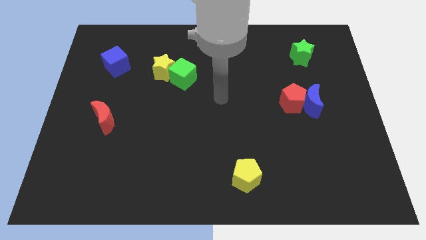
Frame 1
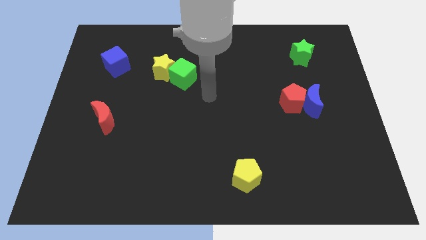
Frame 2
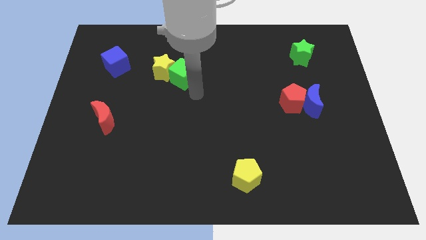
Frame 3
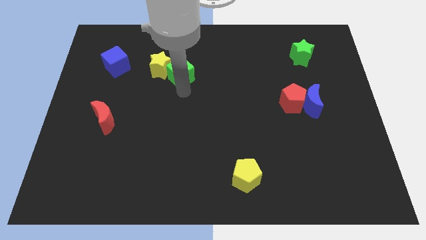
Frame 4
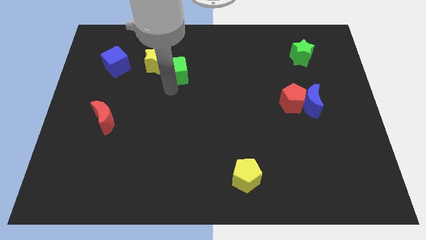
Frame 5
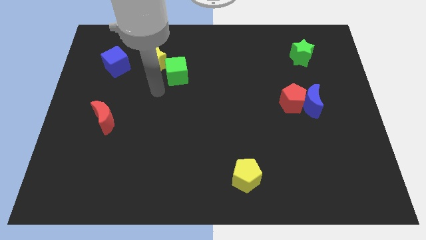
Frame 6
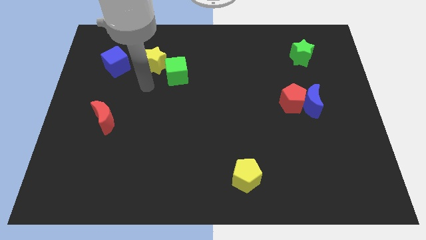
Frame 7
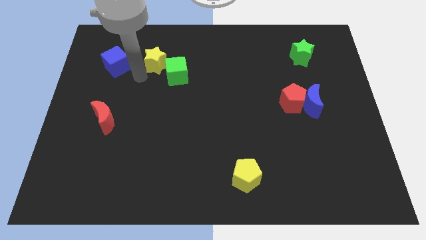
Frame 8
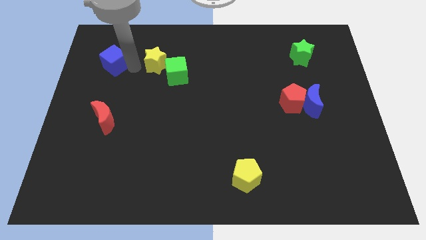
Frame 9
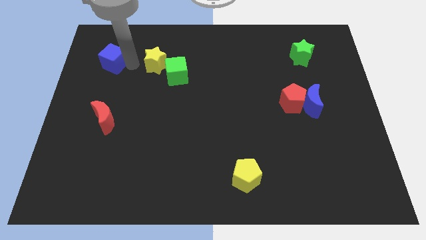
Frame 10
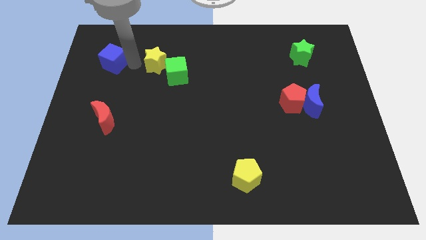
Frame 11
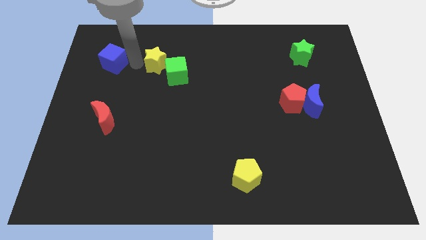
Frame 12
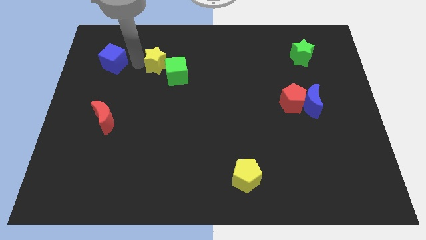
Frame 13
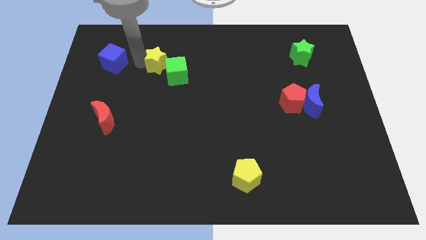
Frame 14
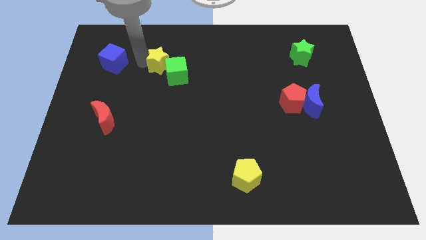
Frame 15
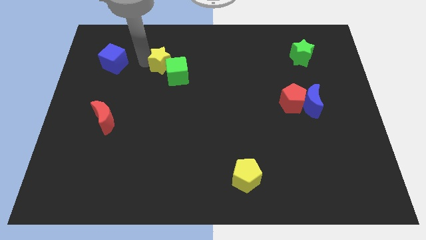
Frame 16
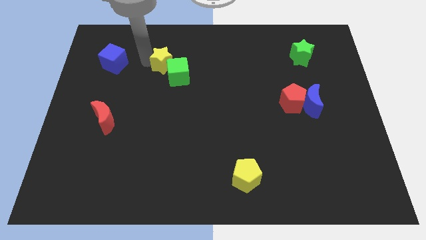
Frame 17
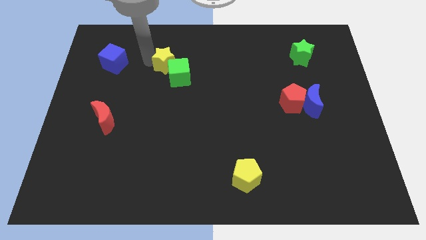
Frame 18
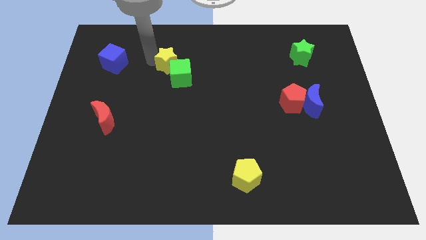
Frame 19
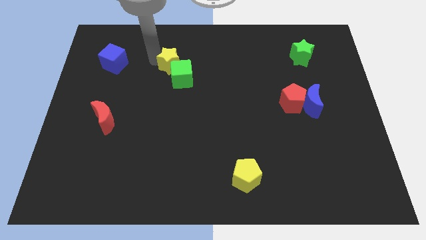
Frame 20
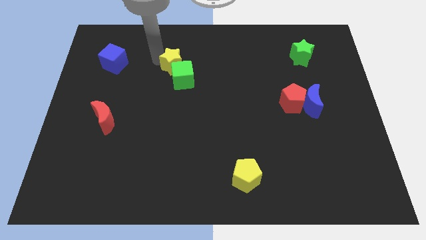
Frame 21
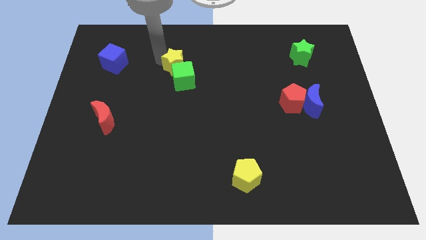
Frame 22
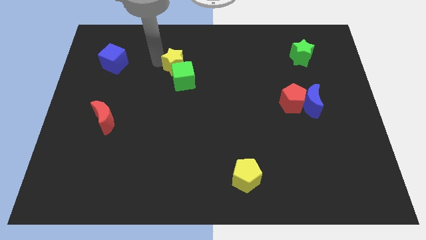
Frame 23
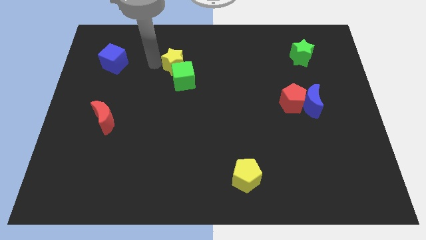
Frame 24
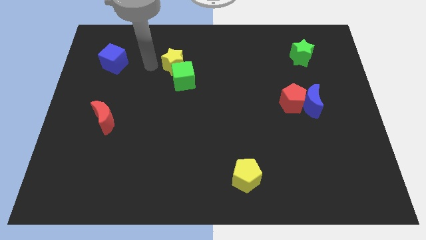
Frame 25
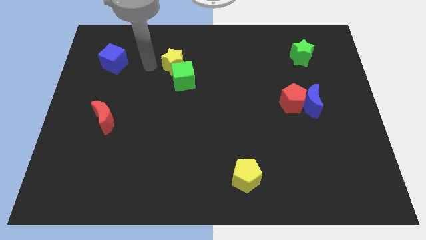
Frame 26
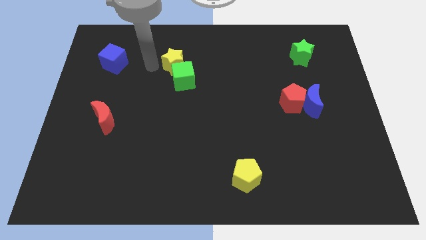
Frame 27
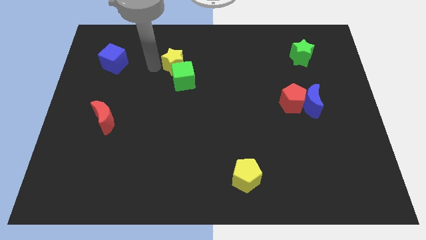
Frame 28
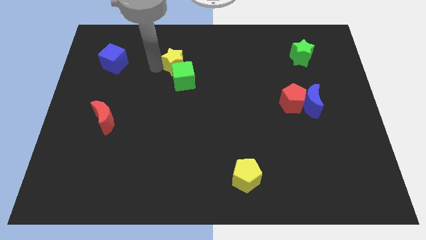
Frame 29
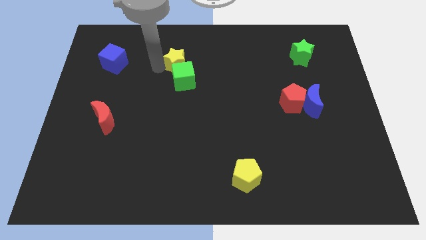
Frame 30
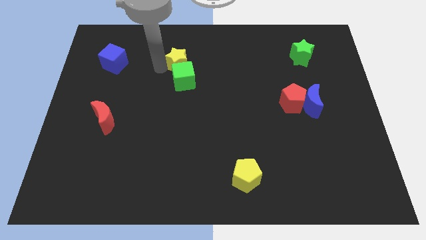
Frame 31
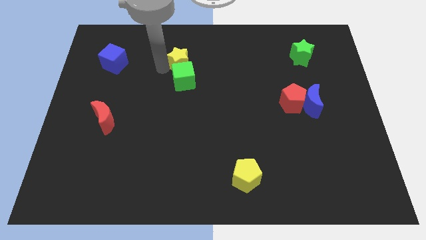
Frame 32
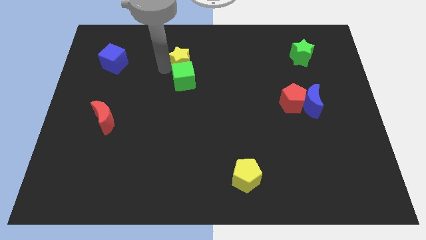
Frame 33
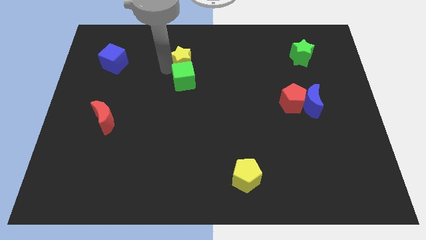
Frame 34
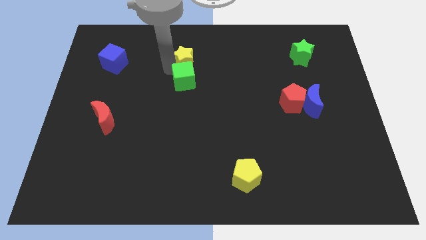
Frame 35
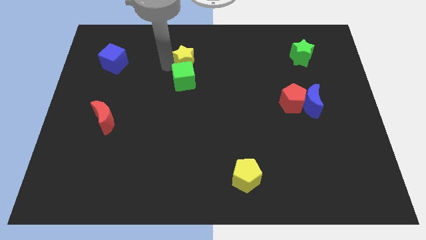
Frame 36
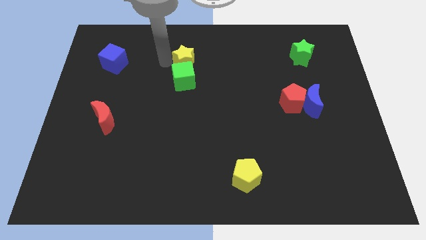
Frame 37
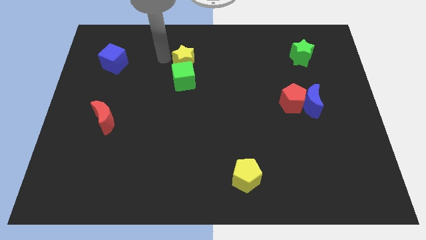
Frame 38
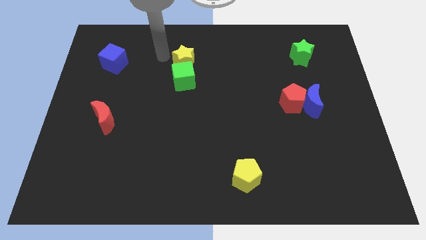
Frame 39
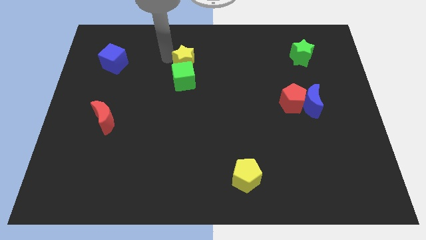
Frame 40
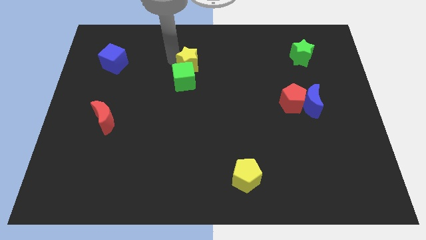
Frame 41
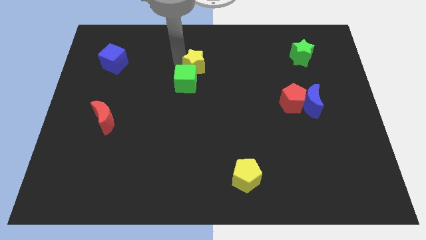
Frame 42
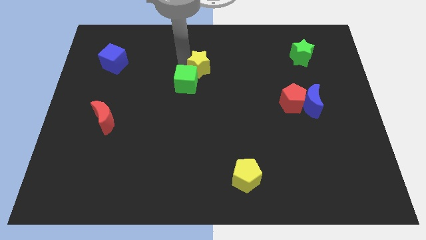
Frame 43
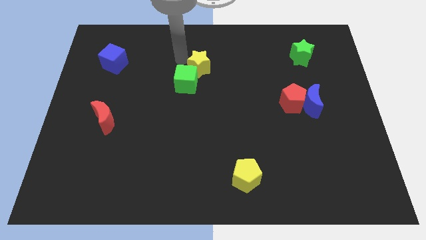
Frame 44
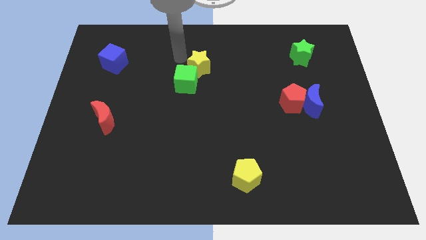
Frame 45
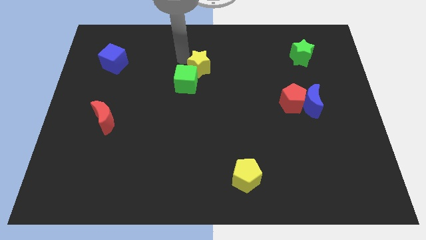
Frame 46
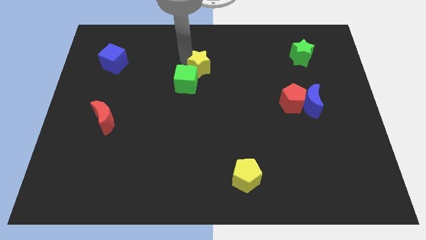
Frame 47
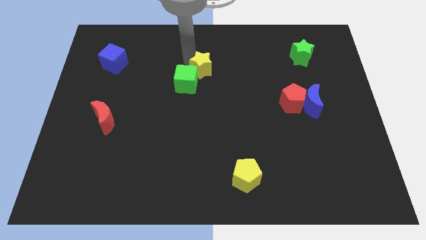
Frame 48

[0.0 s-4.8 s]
put the yellow star to the right of the green cube

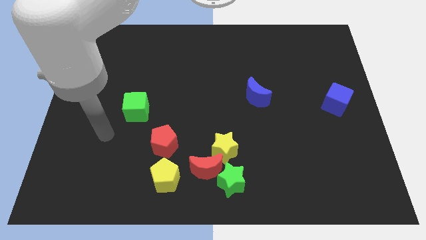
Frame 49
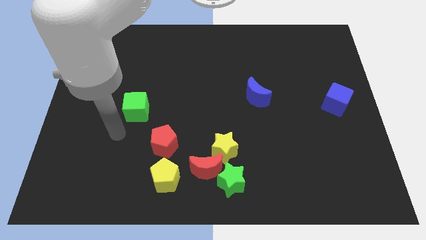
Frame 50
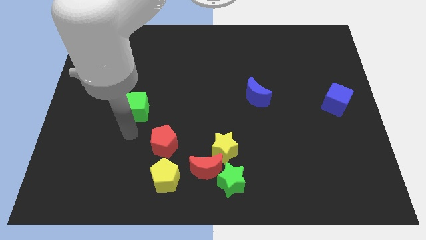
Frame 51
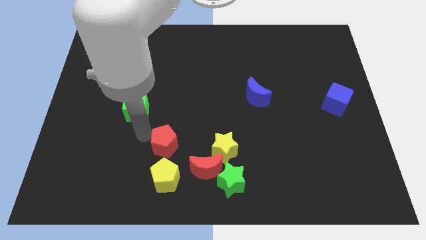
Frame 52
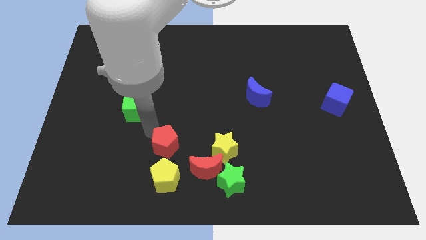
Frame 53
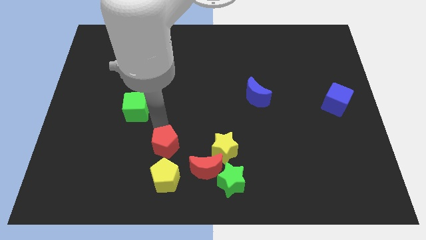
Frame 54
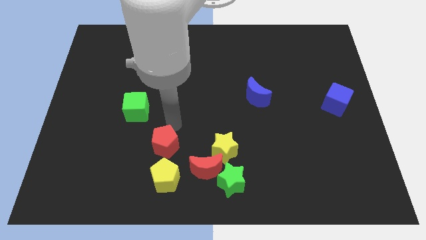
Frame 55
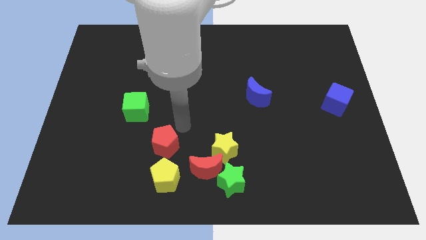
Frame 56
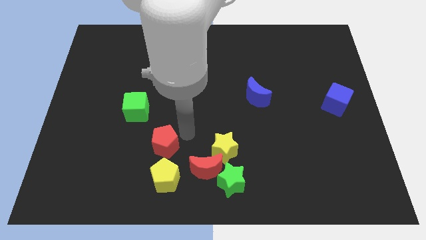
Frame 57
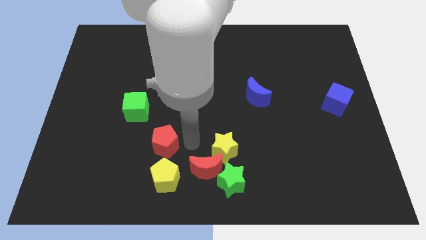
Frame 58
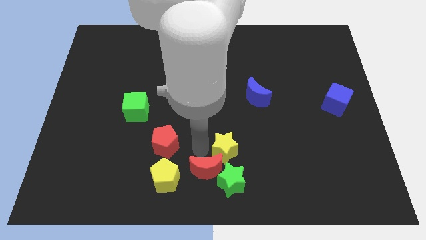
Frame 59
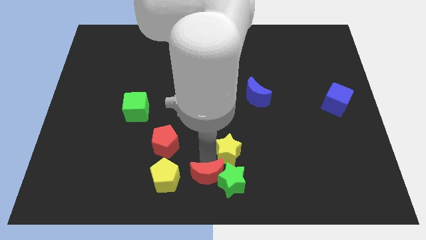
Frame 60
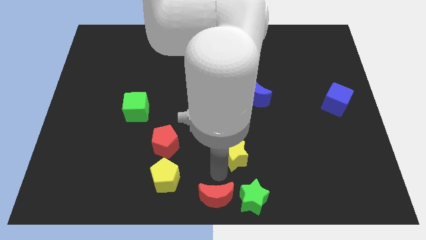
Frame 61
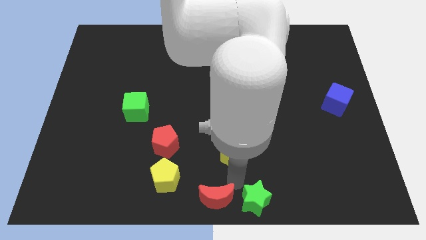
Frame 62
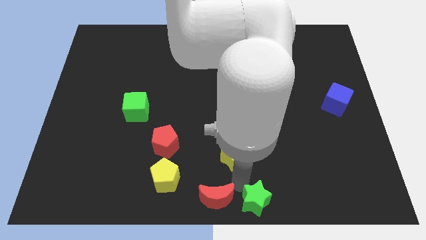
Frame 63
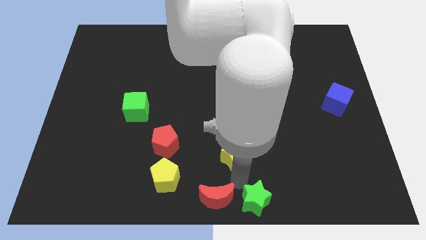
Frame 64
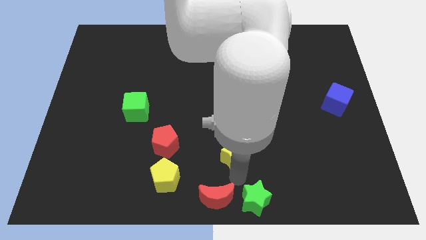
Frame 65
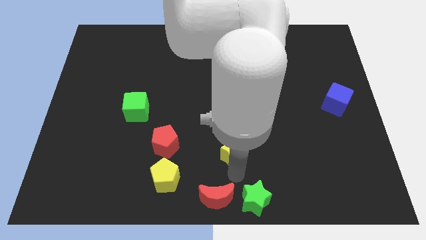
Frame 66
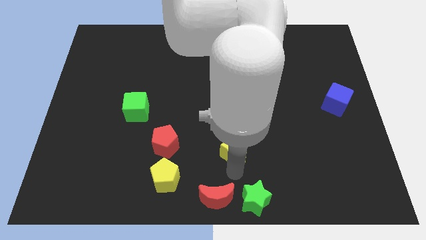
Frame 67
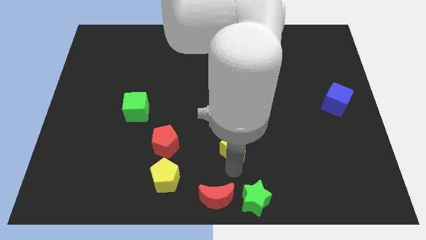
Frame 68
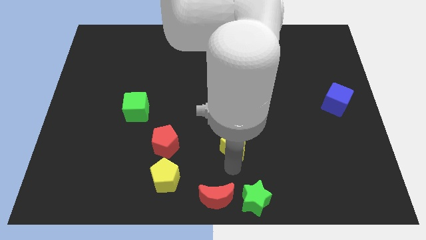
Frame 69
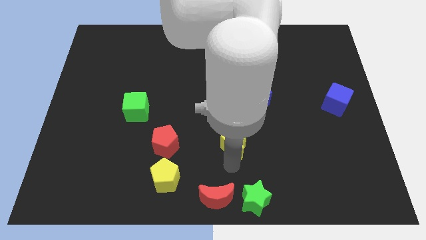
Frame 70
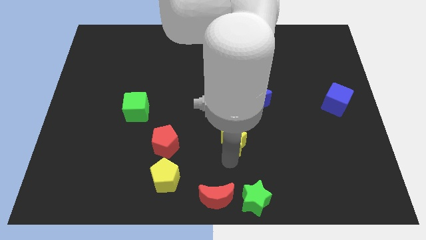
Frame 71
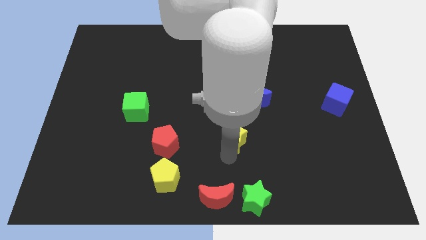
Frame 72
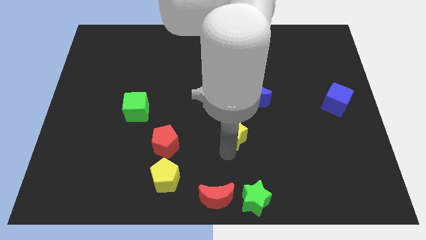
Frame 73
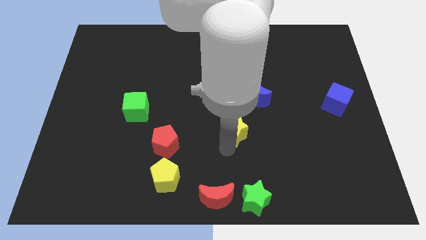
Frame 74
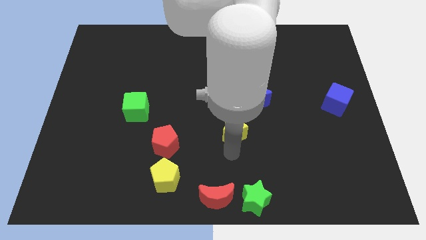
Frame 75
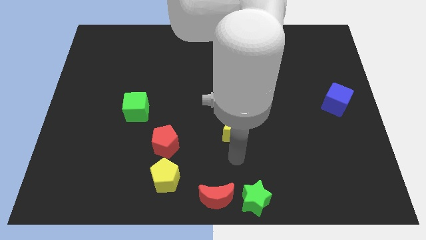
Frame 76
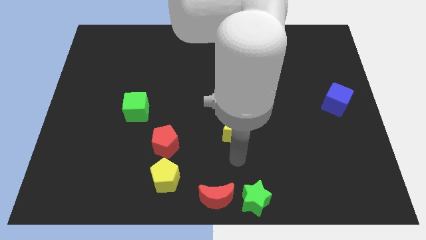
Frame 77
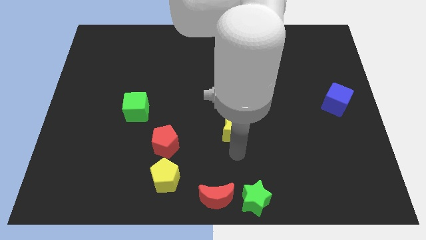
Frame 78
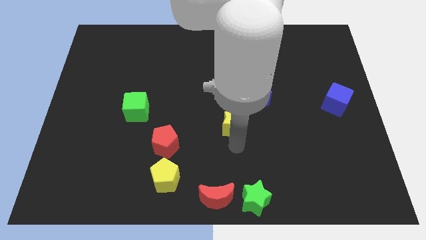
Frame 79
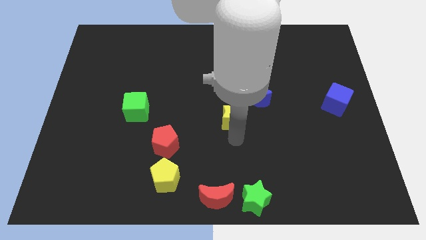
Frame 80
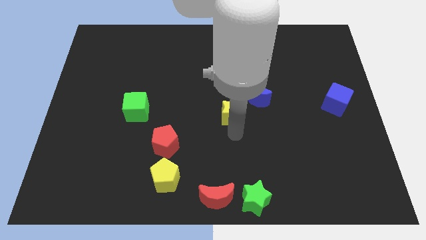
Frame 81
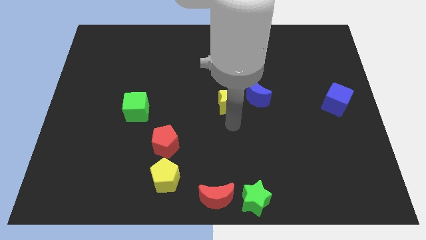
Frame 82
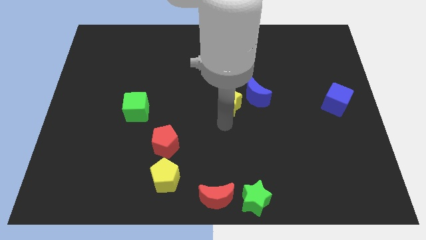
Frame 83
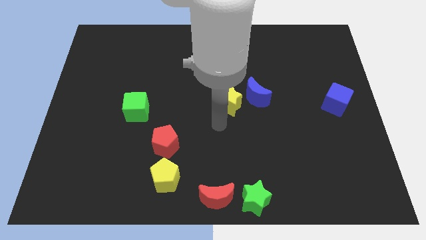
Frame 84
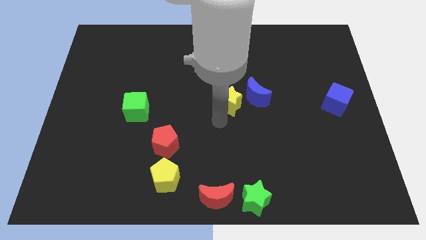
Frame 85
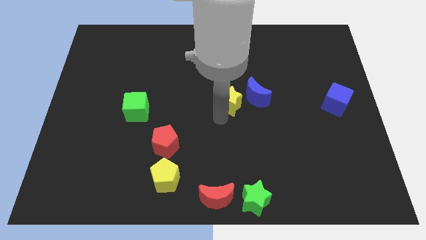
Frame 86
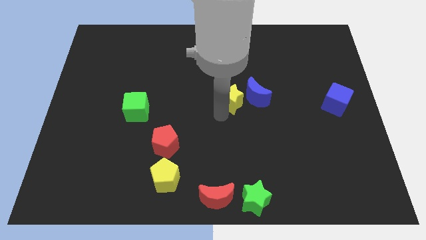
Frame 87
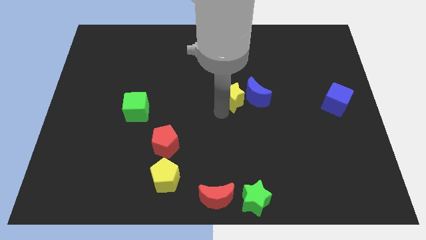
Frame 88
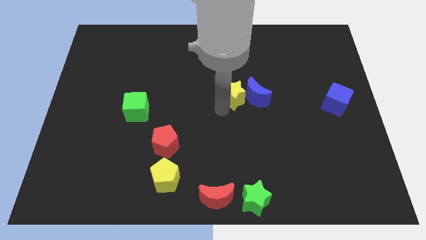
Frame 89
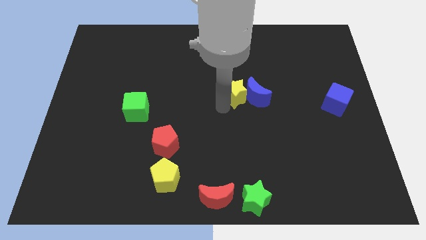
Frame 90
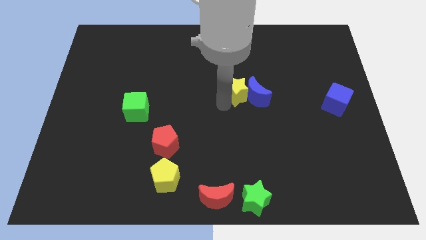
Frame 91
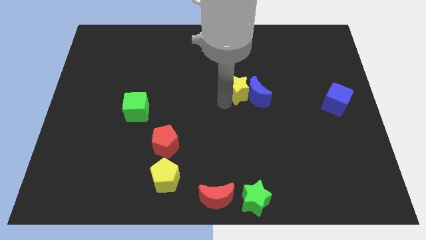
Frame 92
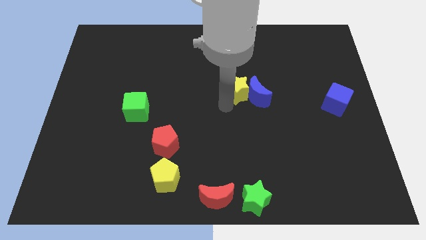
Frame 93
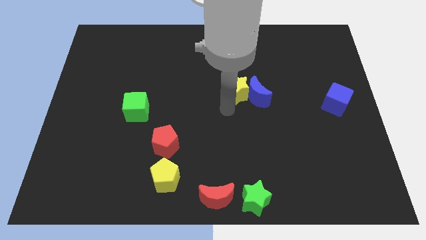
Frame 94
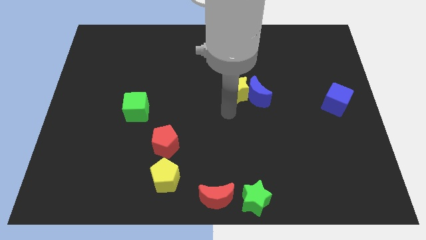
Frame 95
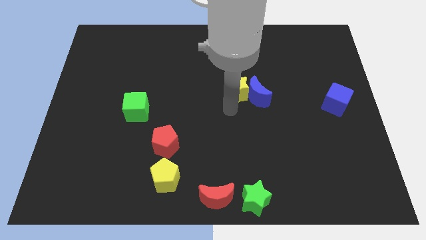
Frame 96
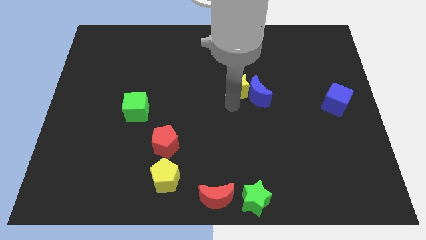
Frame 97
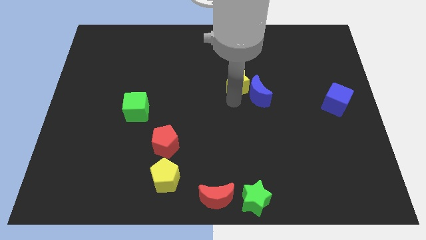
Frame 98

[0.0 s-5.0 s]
push the yellow star above the blue moon
